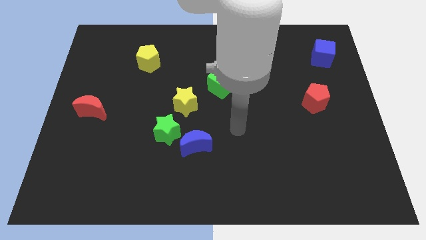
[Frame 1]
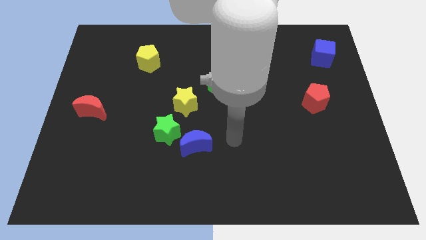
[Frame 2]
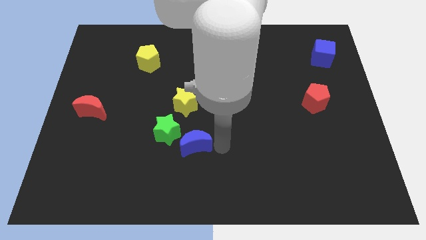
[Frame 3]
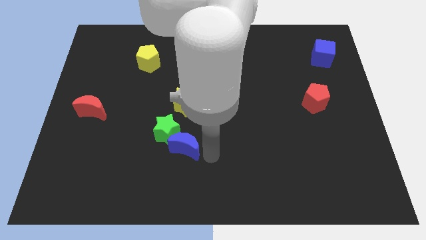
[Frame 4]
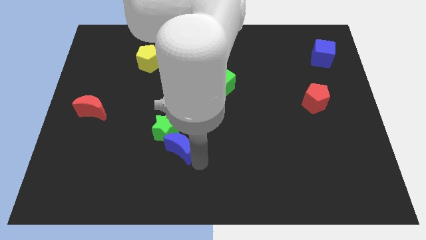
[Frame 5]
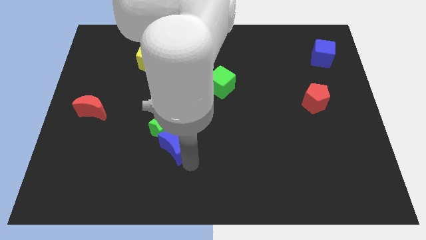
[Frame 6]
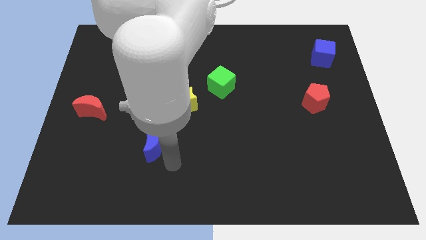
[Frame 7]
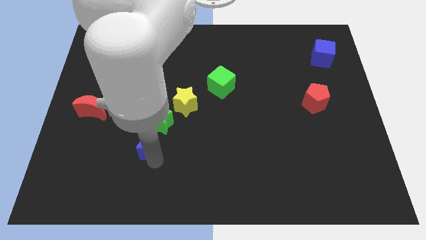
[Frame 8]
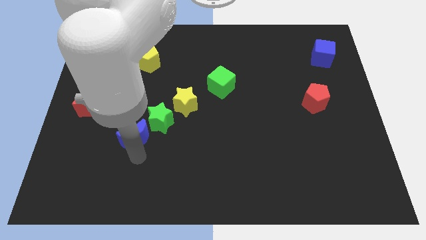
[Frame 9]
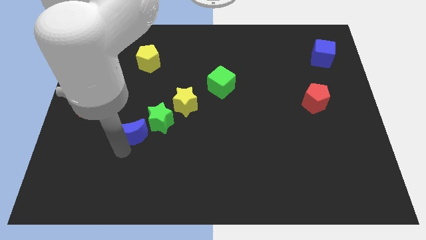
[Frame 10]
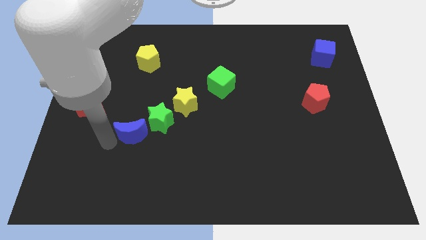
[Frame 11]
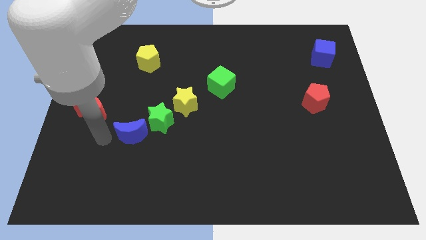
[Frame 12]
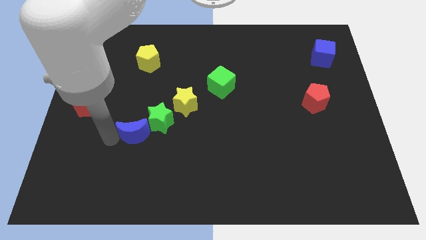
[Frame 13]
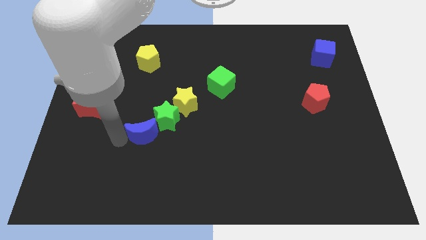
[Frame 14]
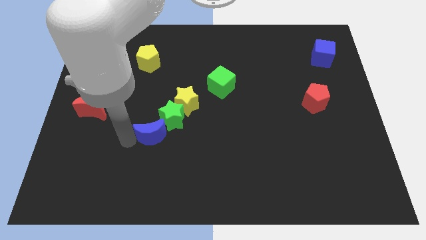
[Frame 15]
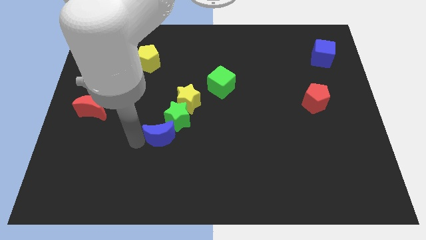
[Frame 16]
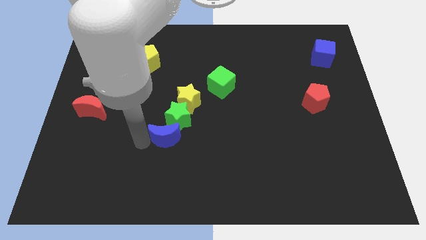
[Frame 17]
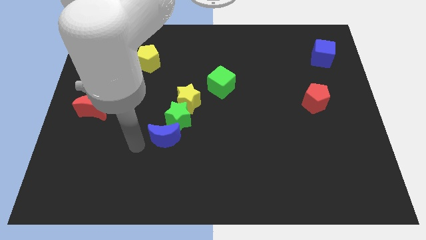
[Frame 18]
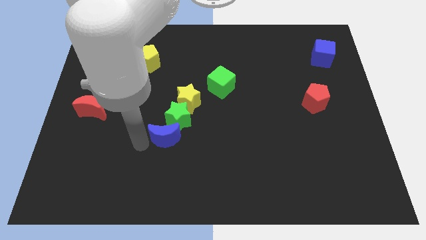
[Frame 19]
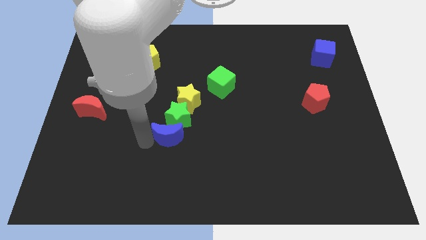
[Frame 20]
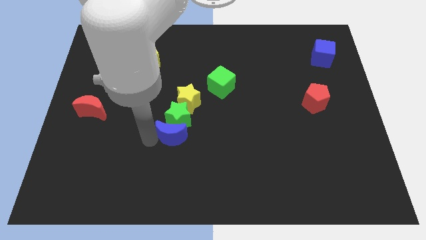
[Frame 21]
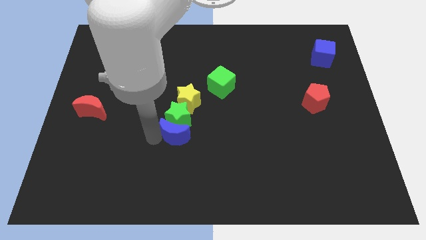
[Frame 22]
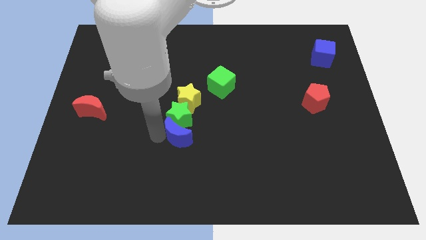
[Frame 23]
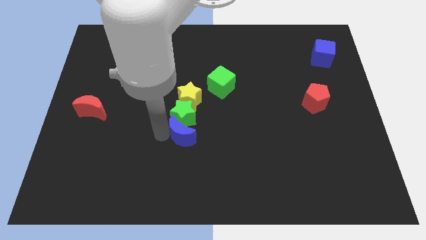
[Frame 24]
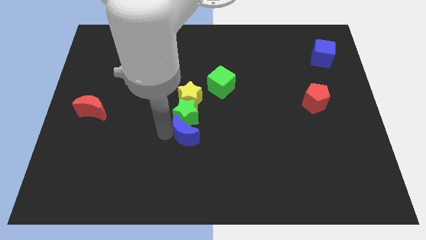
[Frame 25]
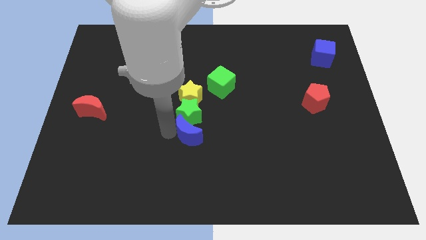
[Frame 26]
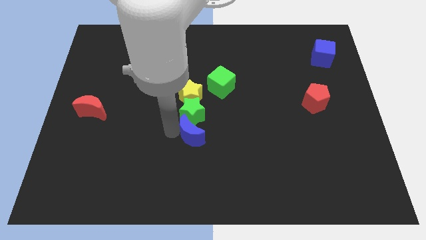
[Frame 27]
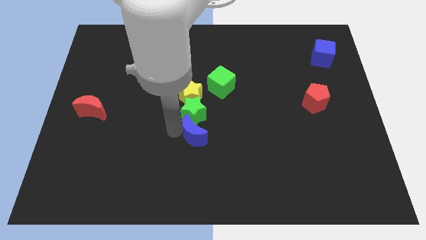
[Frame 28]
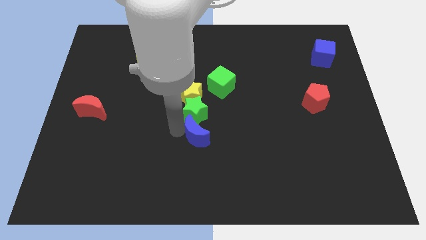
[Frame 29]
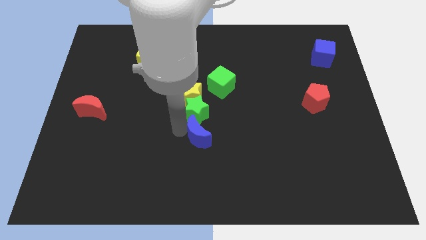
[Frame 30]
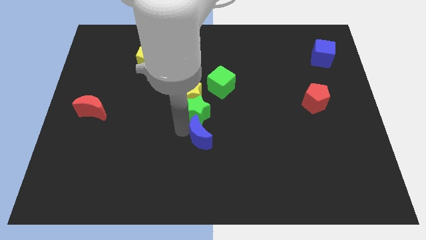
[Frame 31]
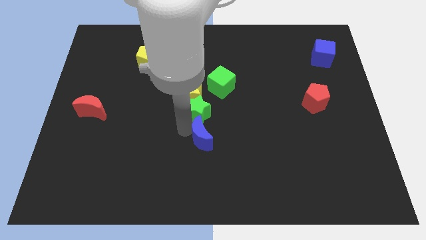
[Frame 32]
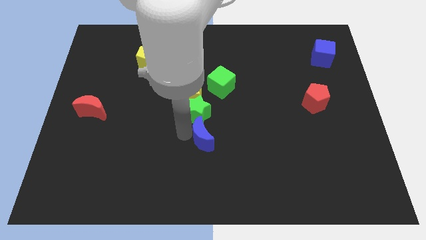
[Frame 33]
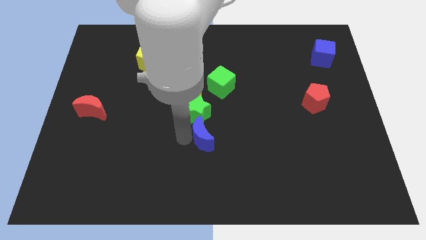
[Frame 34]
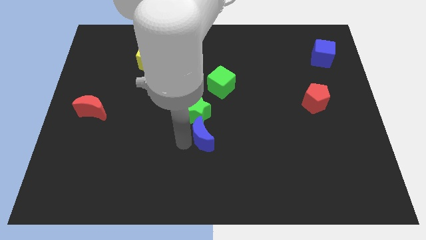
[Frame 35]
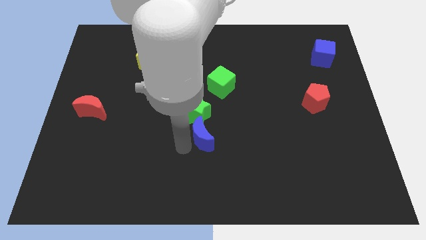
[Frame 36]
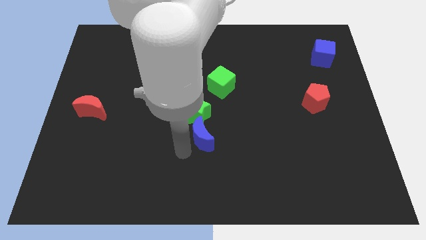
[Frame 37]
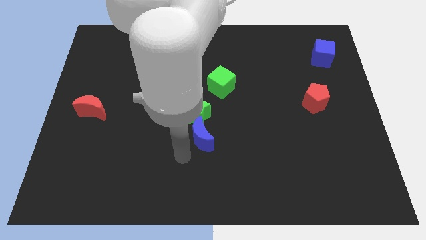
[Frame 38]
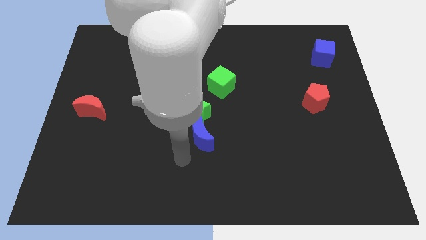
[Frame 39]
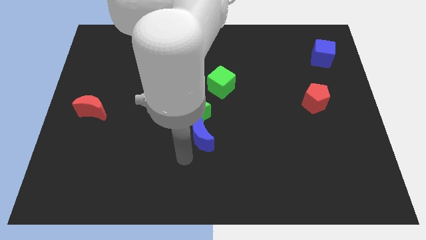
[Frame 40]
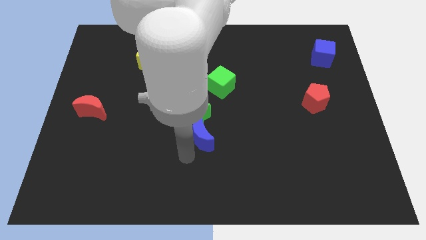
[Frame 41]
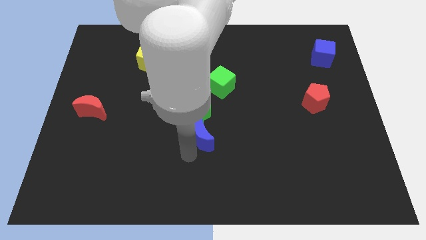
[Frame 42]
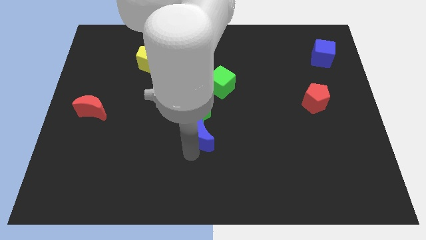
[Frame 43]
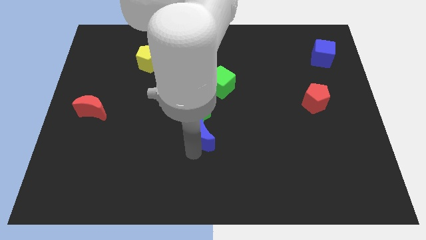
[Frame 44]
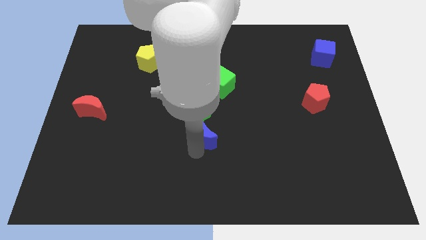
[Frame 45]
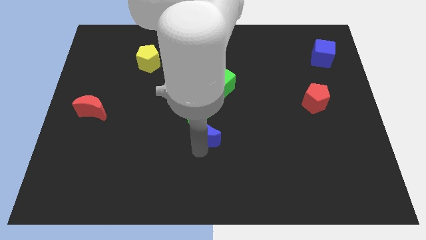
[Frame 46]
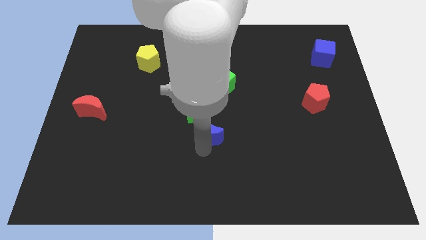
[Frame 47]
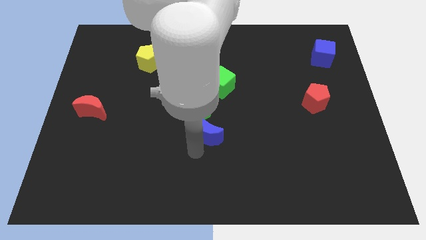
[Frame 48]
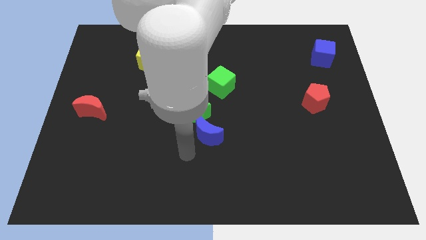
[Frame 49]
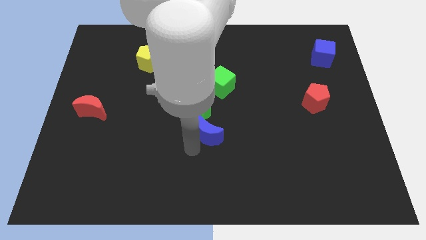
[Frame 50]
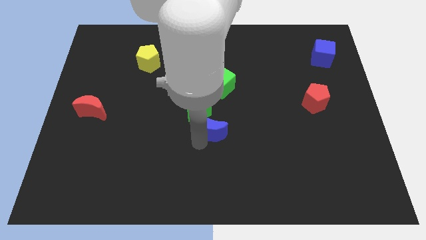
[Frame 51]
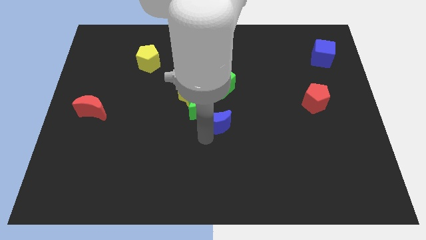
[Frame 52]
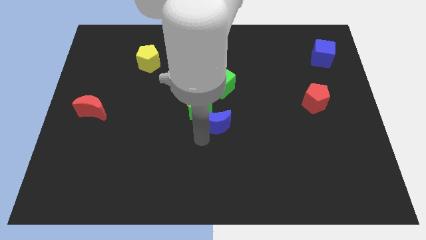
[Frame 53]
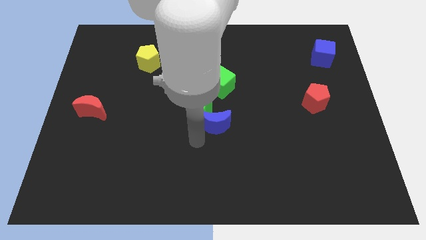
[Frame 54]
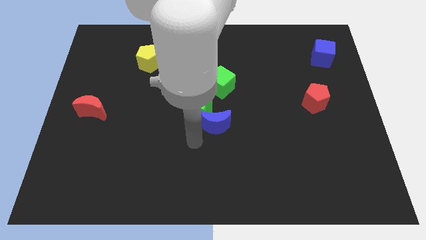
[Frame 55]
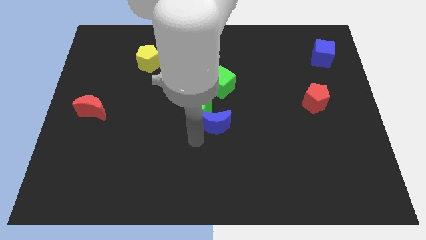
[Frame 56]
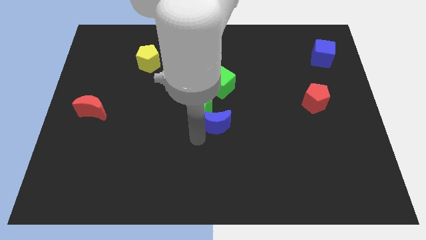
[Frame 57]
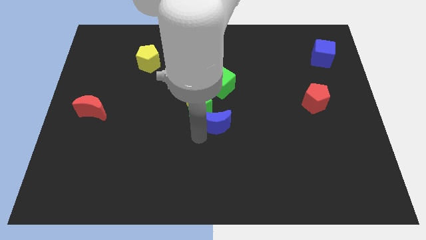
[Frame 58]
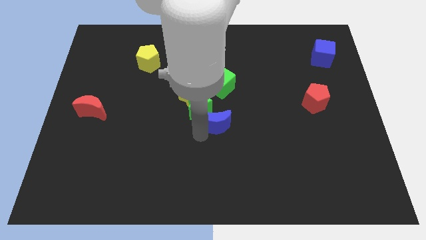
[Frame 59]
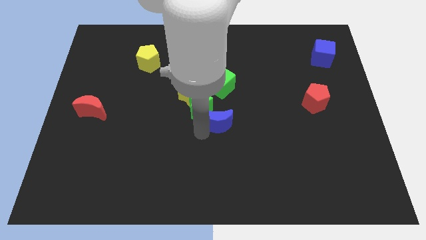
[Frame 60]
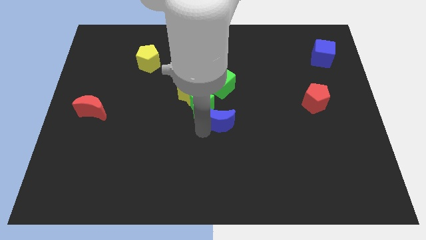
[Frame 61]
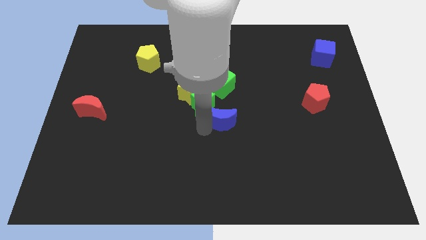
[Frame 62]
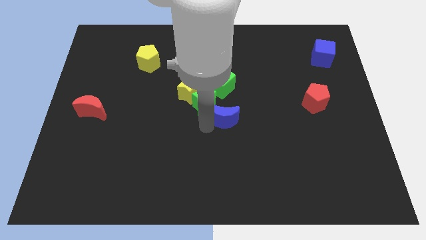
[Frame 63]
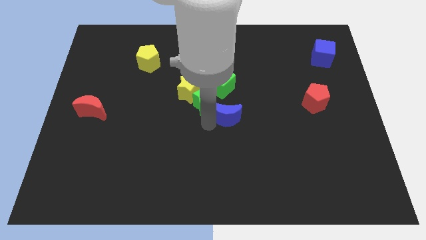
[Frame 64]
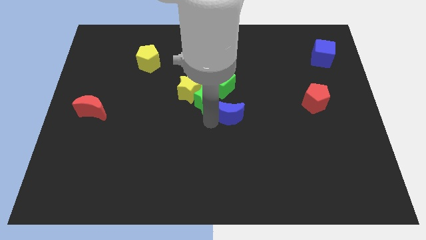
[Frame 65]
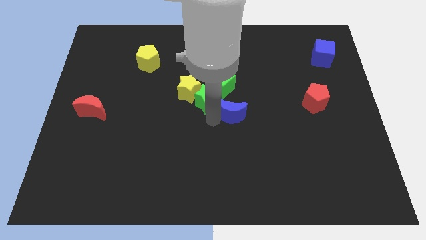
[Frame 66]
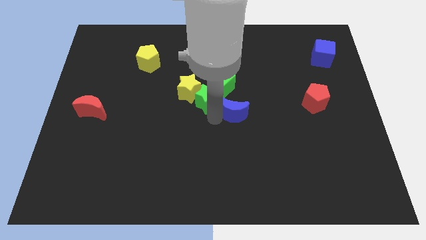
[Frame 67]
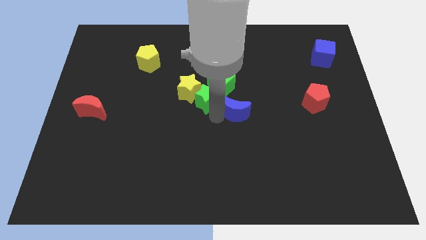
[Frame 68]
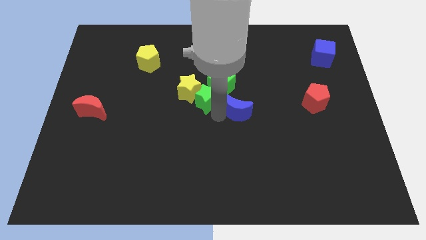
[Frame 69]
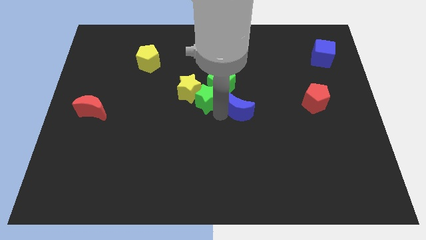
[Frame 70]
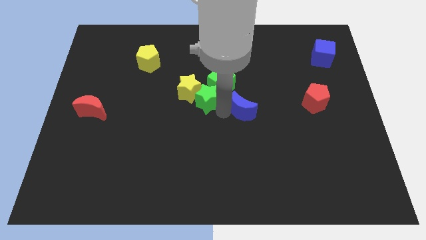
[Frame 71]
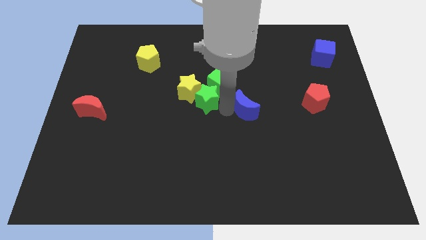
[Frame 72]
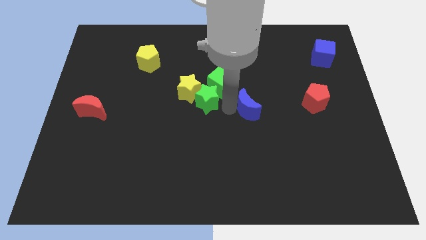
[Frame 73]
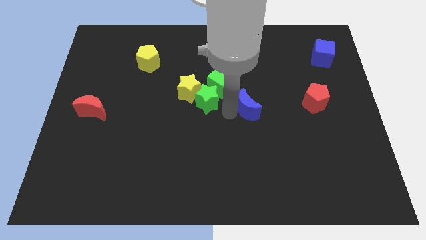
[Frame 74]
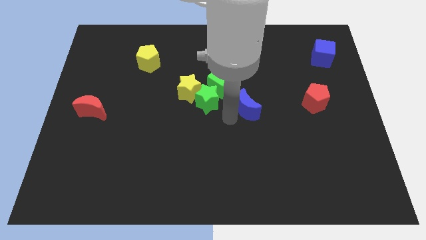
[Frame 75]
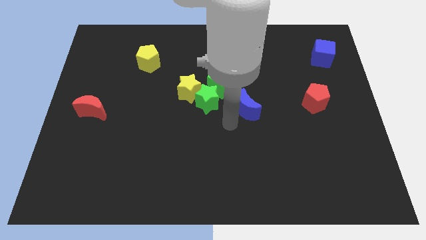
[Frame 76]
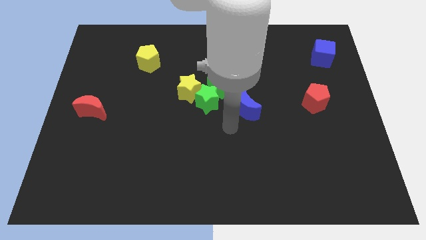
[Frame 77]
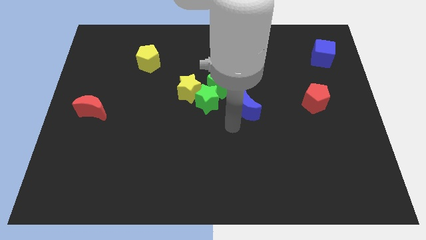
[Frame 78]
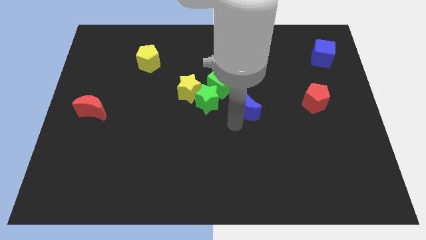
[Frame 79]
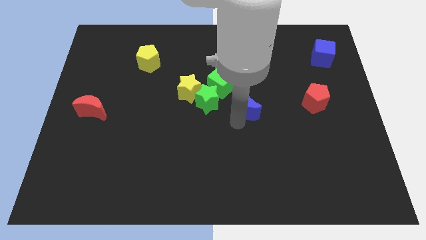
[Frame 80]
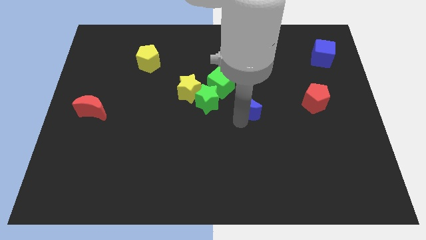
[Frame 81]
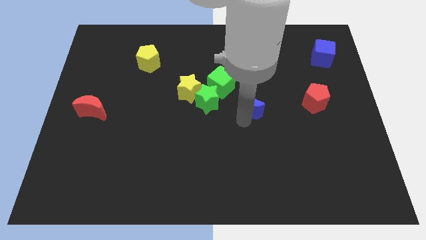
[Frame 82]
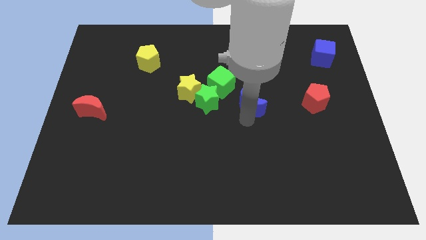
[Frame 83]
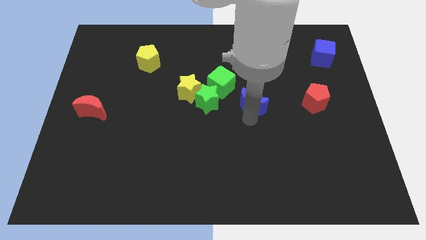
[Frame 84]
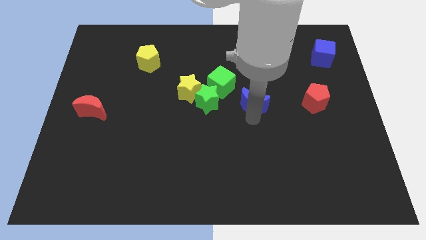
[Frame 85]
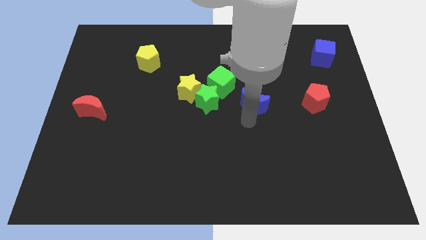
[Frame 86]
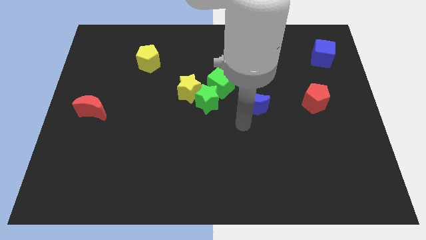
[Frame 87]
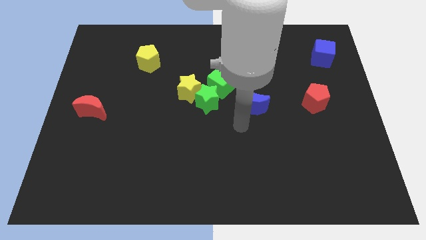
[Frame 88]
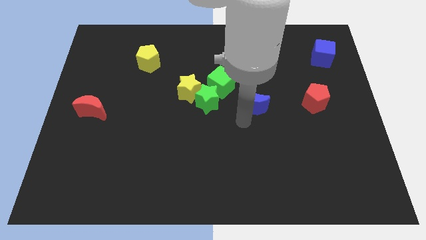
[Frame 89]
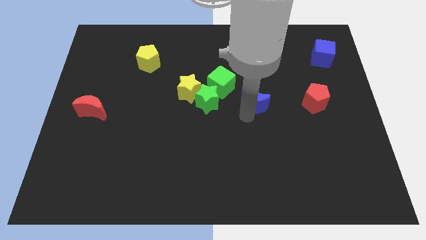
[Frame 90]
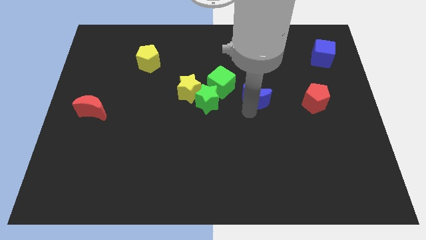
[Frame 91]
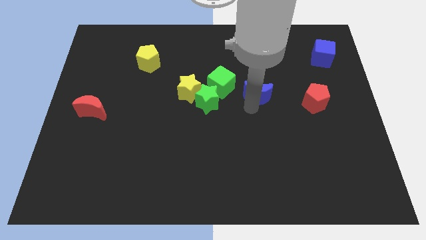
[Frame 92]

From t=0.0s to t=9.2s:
push the blue moon up and right
